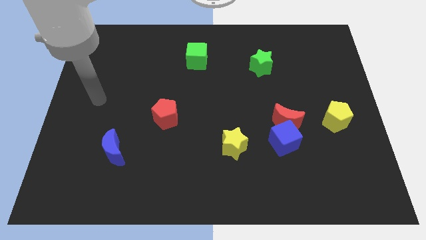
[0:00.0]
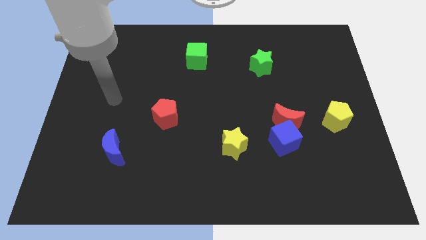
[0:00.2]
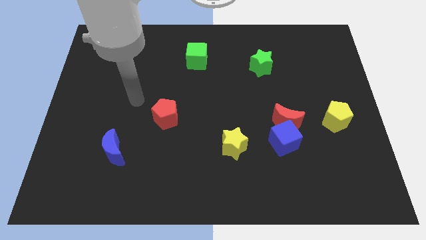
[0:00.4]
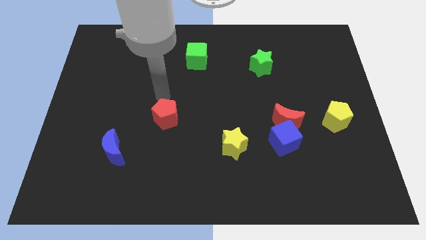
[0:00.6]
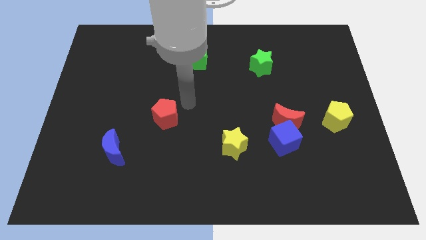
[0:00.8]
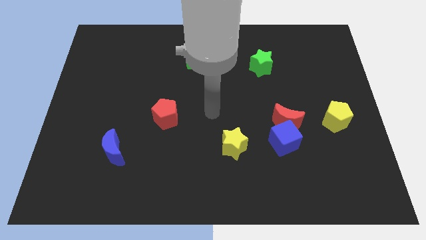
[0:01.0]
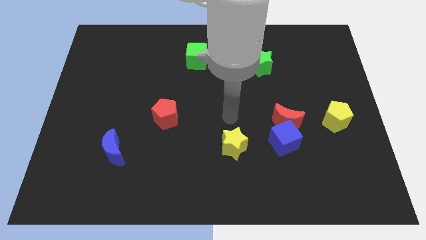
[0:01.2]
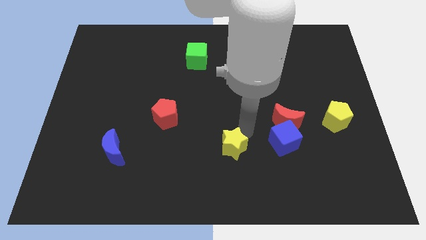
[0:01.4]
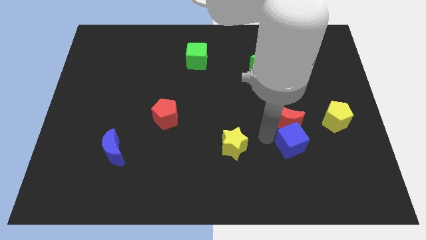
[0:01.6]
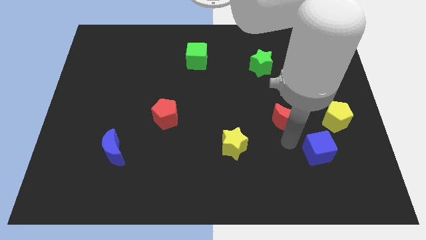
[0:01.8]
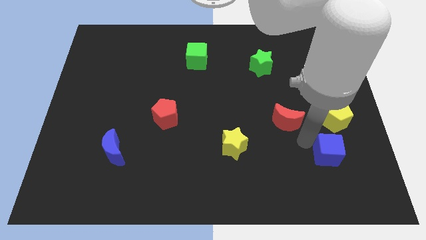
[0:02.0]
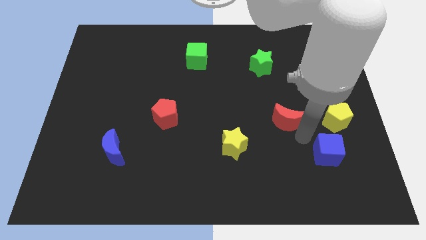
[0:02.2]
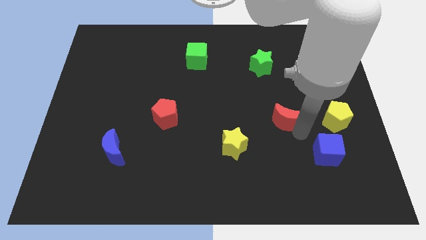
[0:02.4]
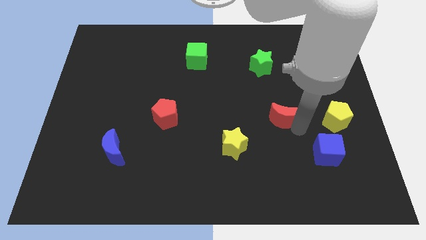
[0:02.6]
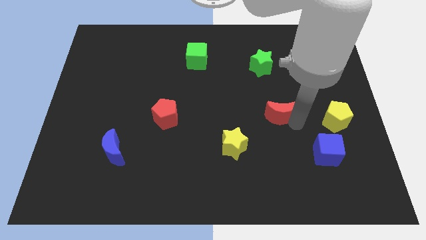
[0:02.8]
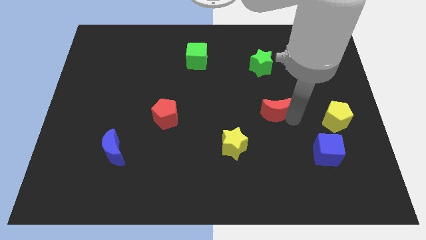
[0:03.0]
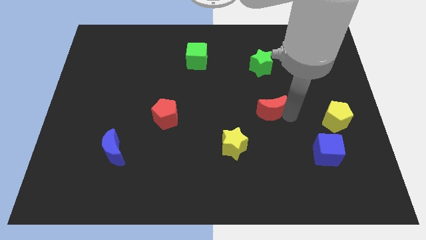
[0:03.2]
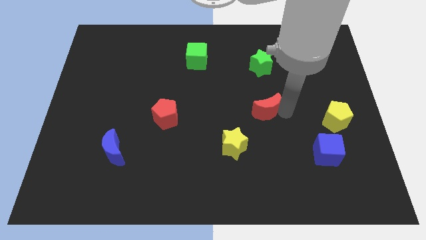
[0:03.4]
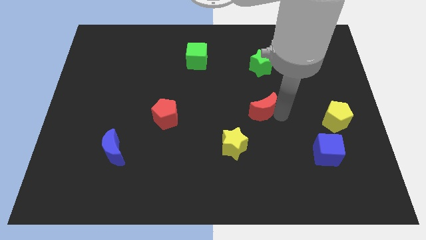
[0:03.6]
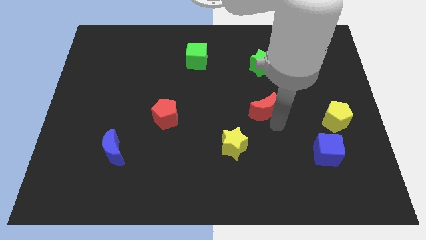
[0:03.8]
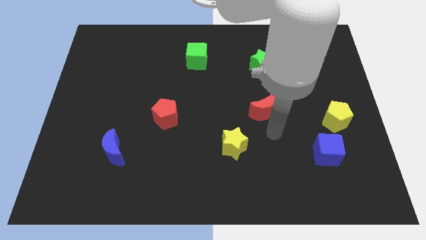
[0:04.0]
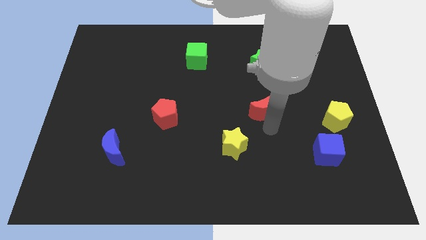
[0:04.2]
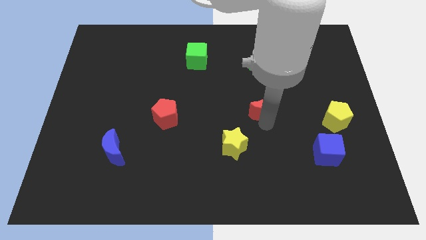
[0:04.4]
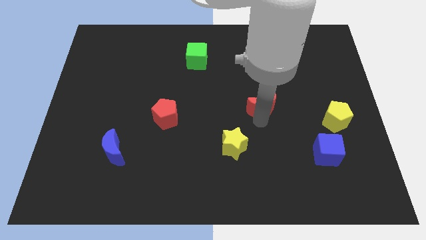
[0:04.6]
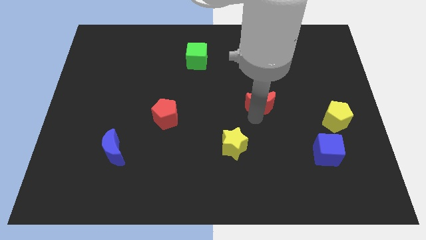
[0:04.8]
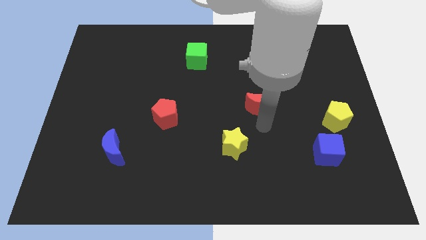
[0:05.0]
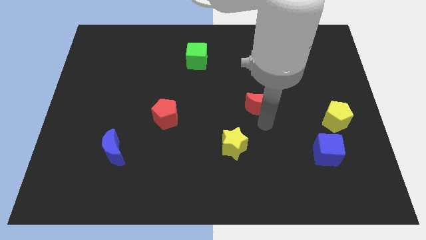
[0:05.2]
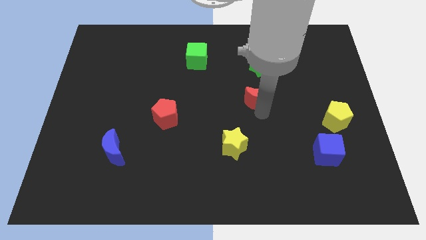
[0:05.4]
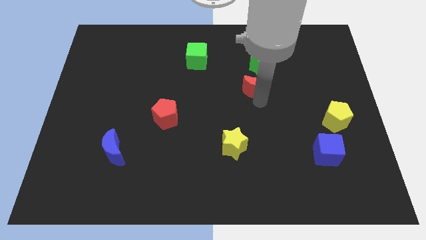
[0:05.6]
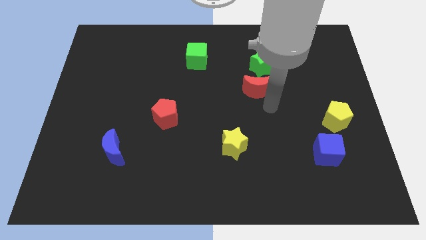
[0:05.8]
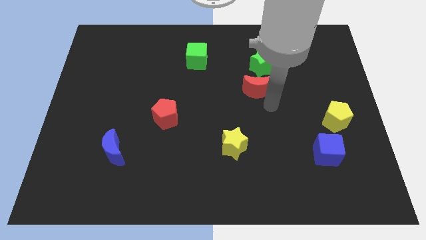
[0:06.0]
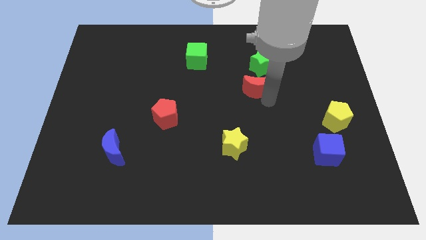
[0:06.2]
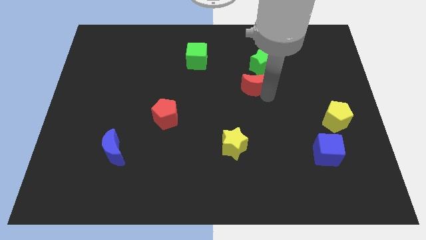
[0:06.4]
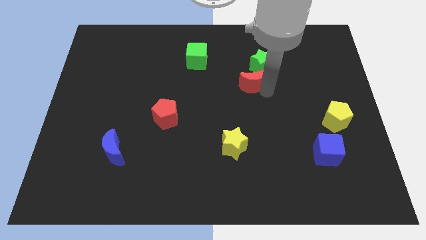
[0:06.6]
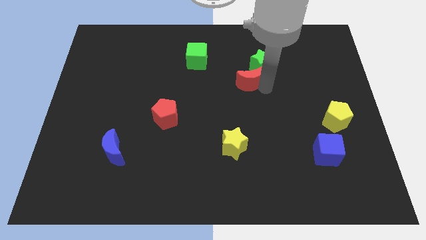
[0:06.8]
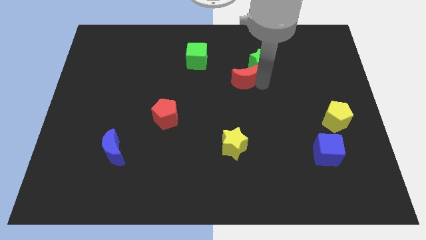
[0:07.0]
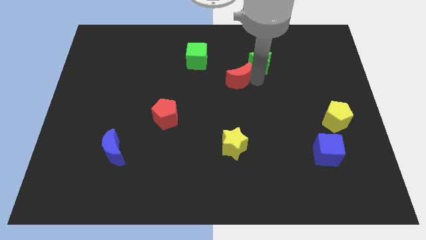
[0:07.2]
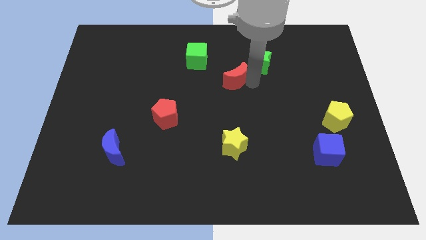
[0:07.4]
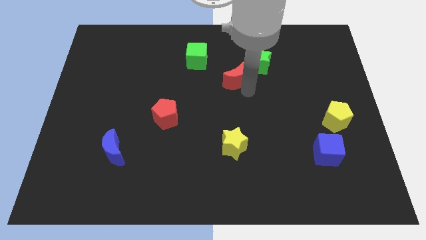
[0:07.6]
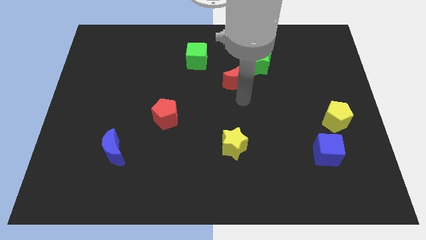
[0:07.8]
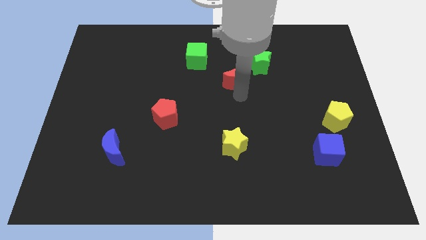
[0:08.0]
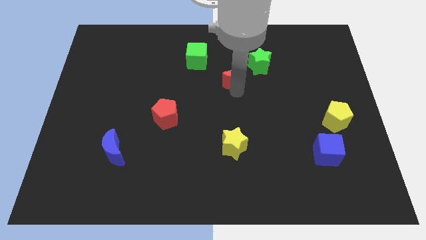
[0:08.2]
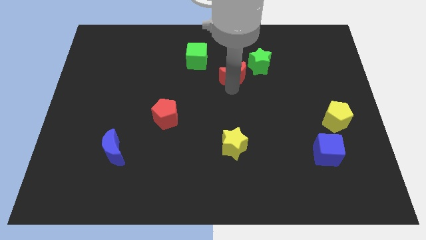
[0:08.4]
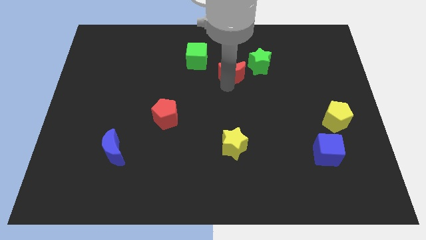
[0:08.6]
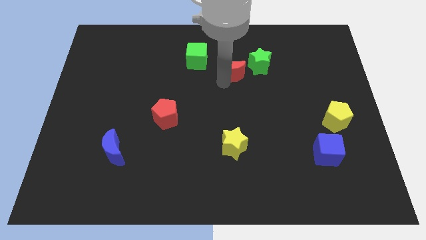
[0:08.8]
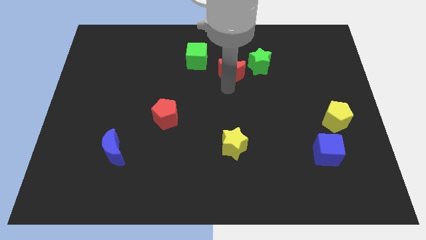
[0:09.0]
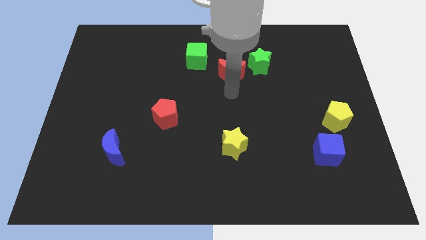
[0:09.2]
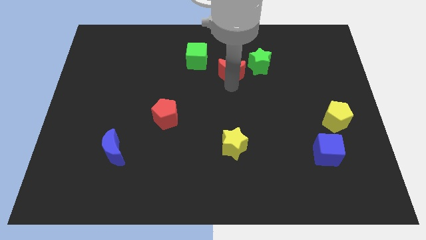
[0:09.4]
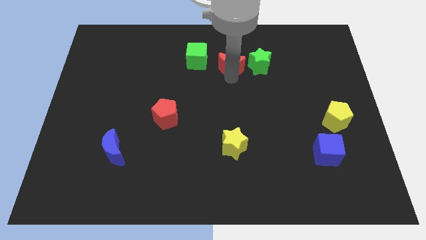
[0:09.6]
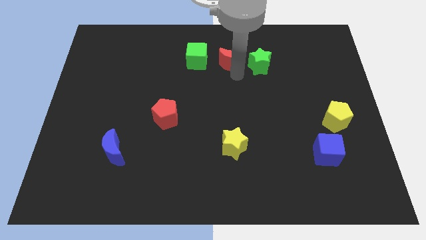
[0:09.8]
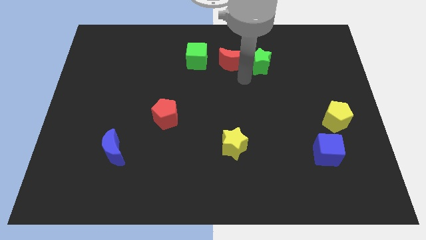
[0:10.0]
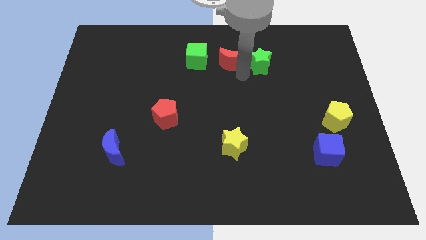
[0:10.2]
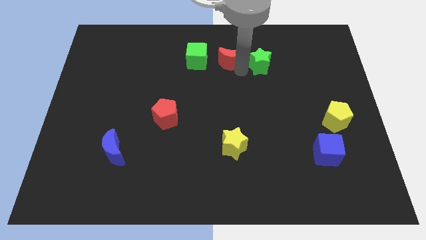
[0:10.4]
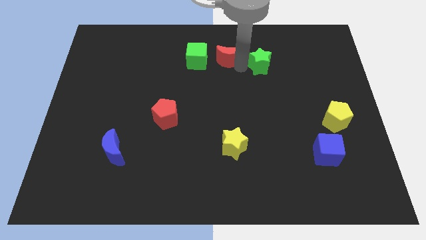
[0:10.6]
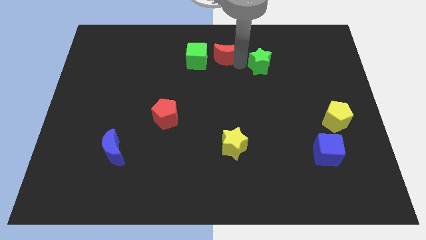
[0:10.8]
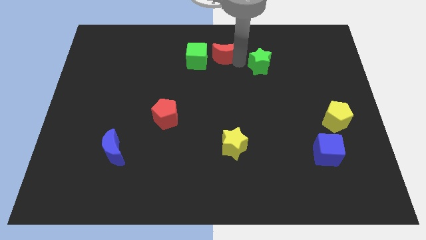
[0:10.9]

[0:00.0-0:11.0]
push the red moon to the top side
